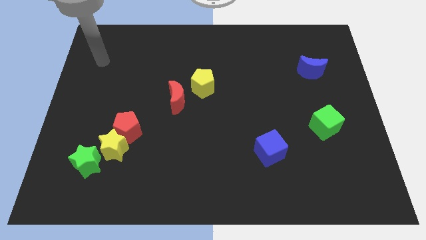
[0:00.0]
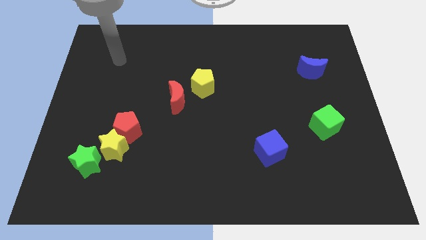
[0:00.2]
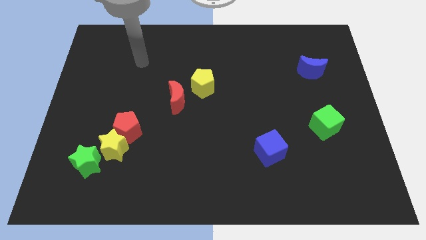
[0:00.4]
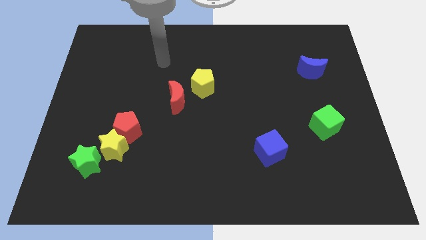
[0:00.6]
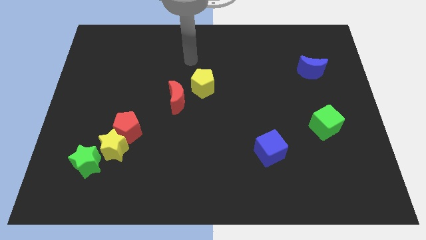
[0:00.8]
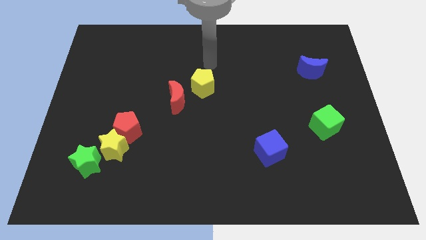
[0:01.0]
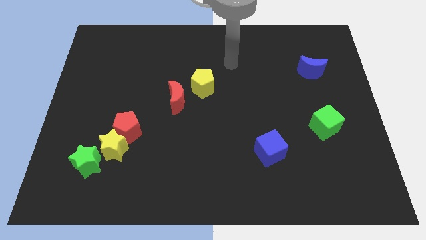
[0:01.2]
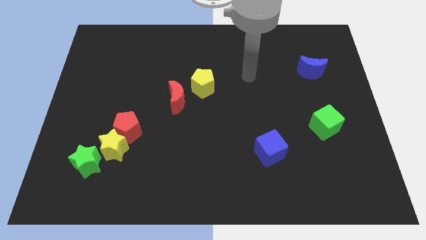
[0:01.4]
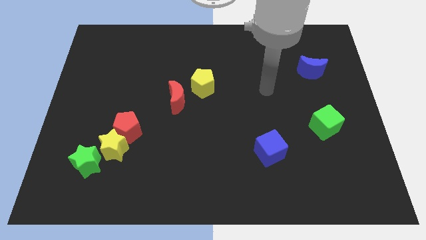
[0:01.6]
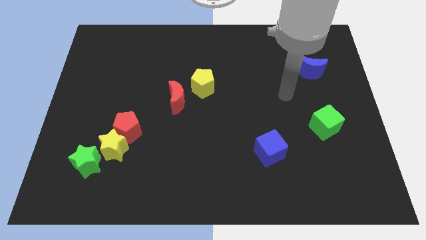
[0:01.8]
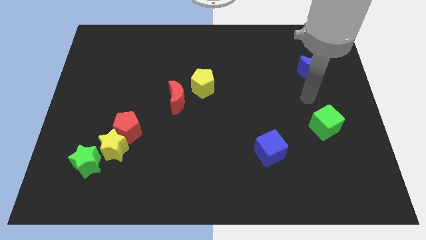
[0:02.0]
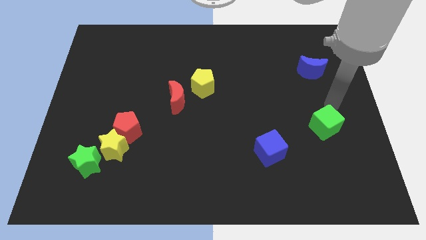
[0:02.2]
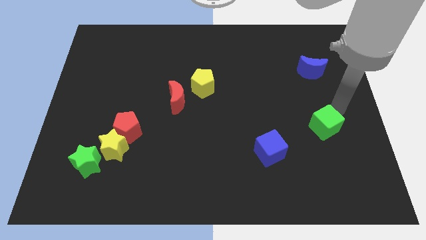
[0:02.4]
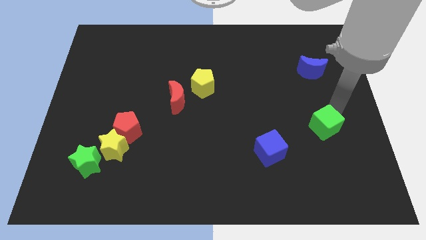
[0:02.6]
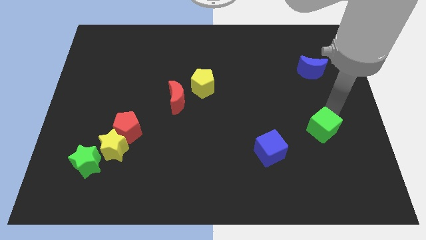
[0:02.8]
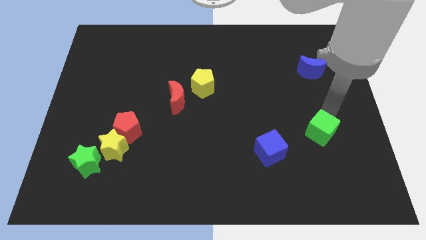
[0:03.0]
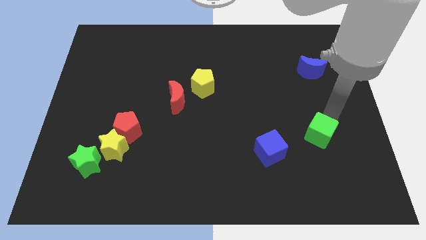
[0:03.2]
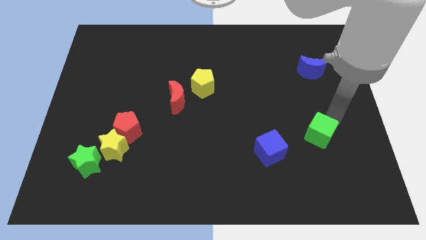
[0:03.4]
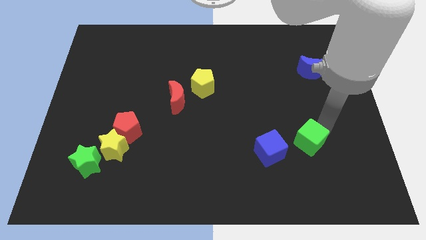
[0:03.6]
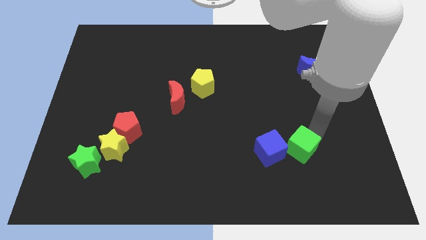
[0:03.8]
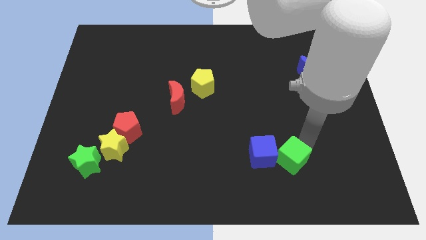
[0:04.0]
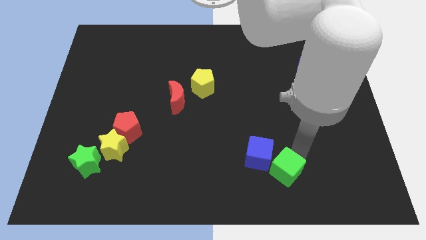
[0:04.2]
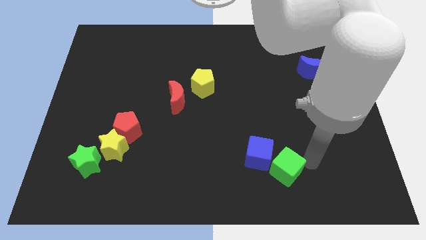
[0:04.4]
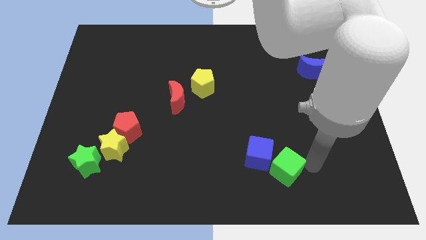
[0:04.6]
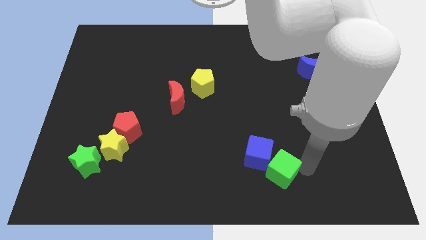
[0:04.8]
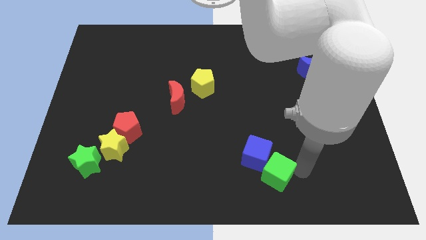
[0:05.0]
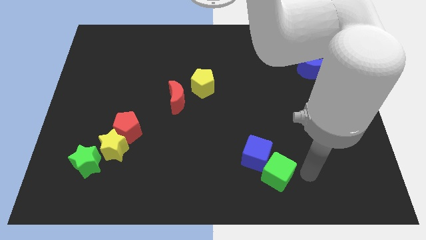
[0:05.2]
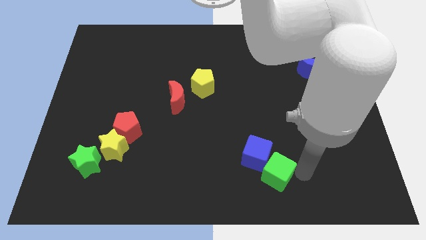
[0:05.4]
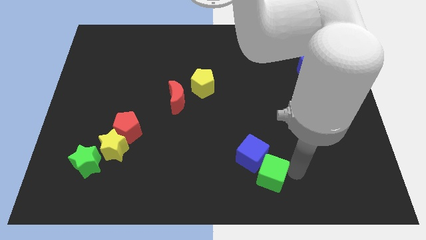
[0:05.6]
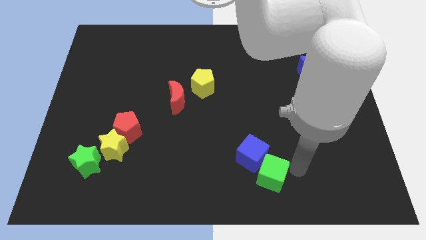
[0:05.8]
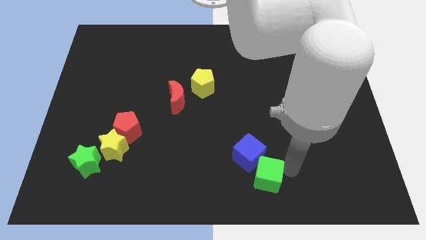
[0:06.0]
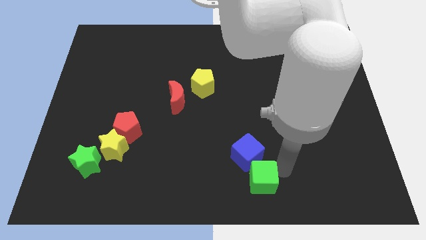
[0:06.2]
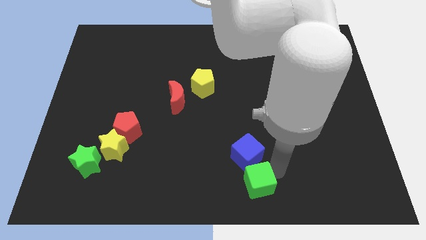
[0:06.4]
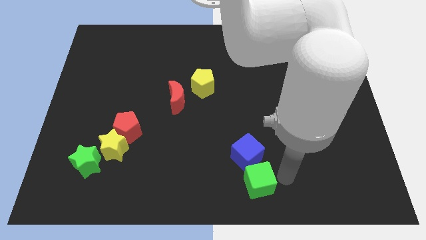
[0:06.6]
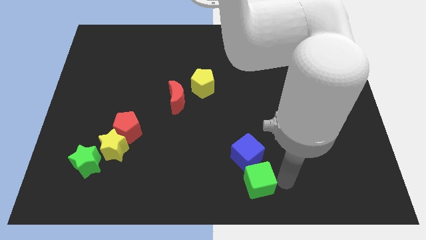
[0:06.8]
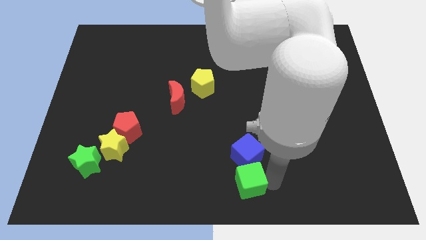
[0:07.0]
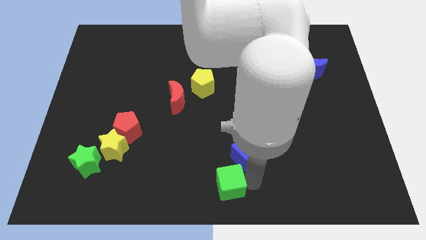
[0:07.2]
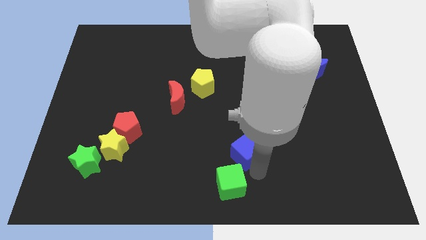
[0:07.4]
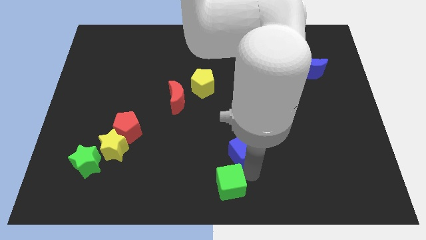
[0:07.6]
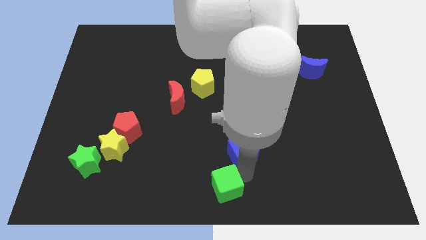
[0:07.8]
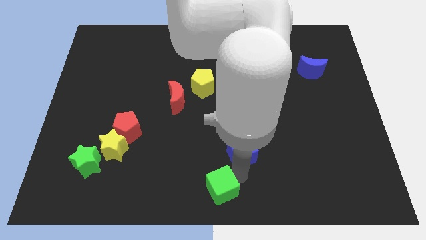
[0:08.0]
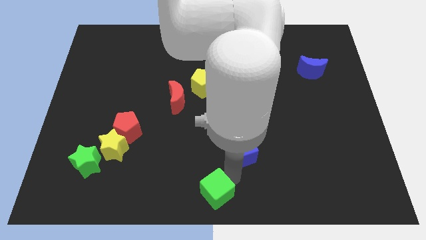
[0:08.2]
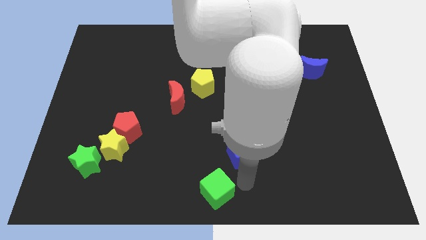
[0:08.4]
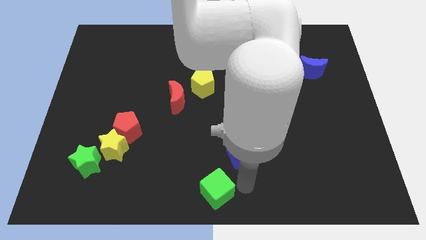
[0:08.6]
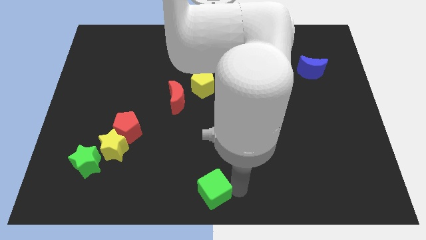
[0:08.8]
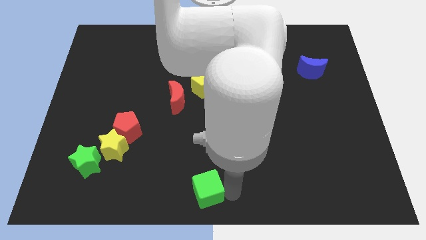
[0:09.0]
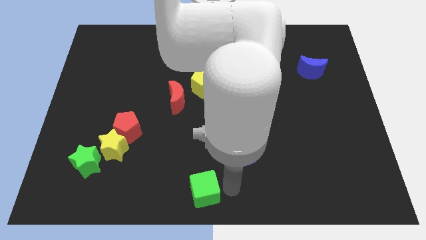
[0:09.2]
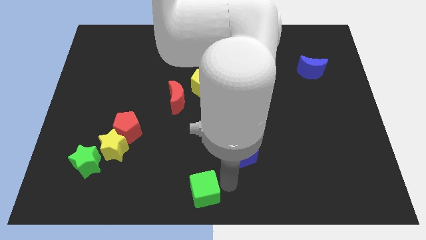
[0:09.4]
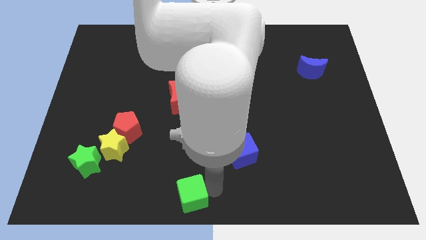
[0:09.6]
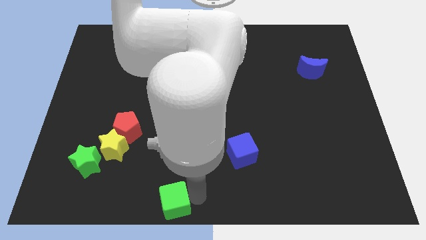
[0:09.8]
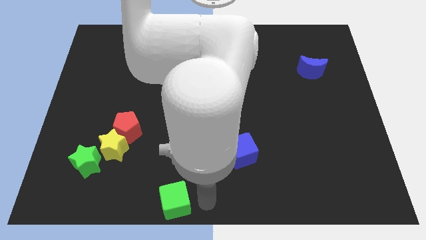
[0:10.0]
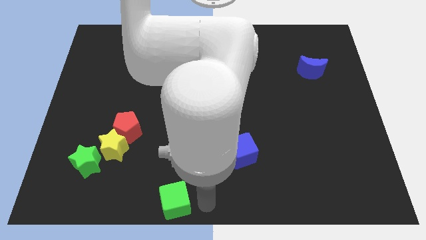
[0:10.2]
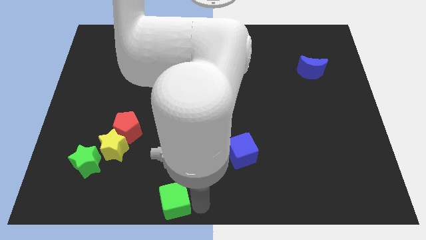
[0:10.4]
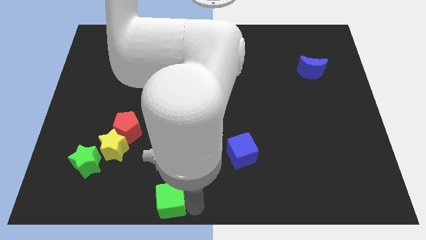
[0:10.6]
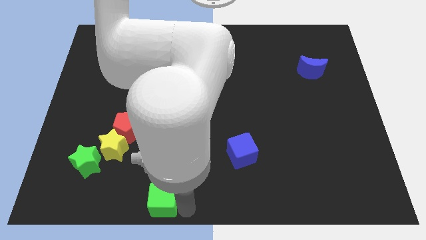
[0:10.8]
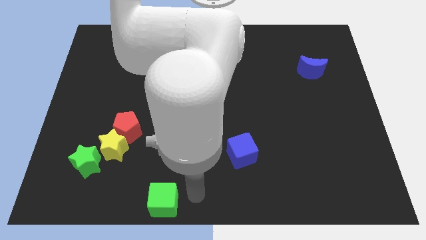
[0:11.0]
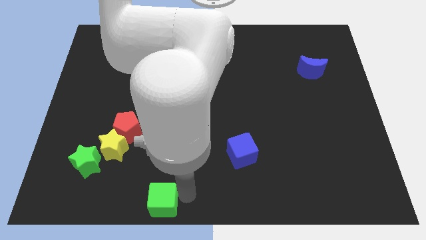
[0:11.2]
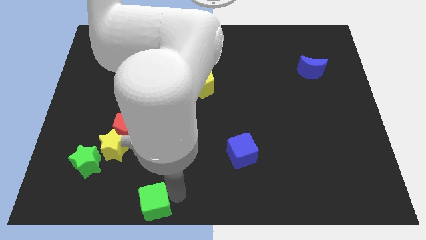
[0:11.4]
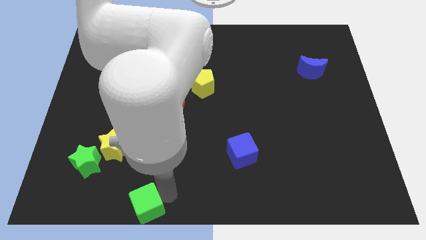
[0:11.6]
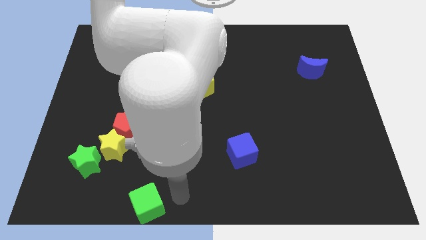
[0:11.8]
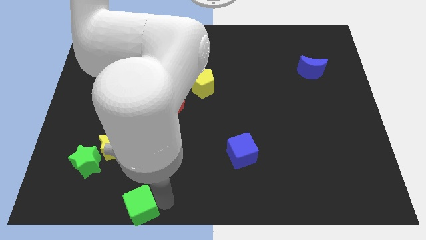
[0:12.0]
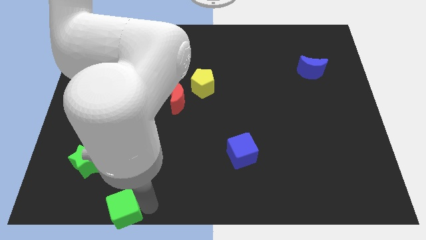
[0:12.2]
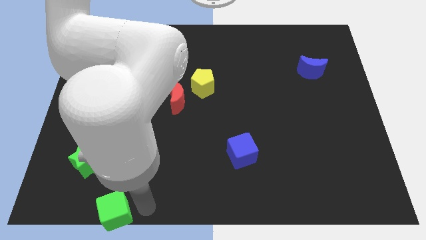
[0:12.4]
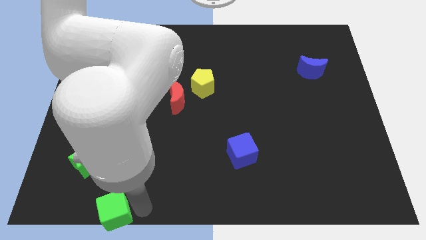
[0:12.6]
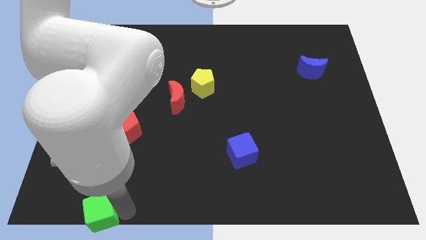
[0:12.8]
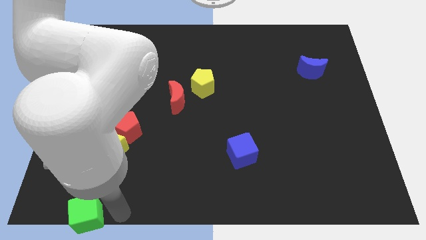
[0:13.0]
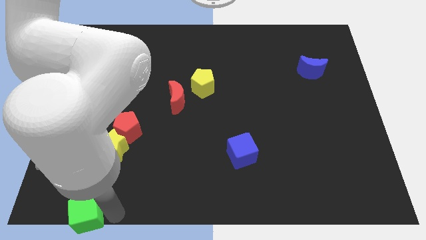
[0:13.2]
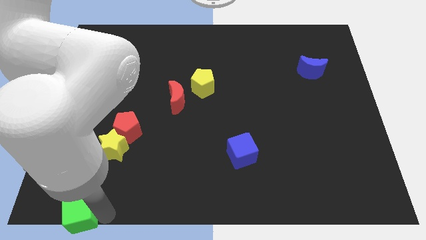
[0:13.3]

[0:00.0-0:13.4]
move the green cube to the bottom left corner
